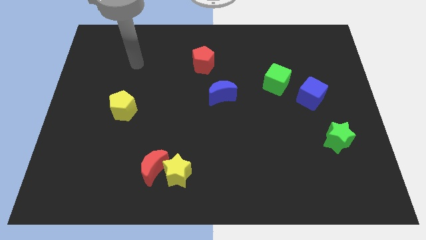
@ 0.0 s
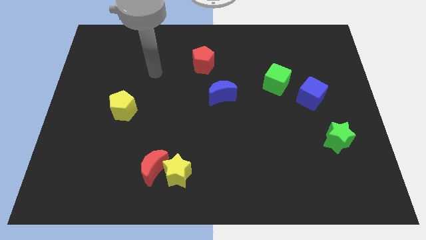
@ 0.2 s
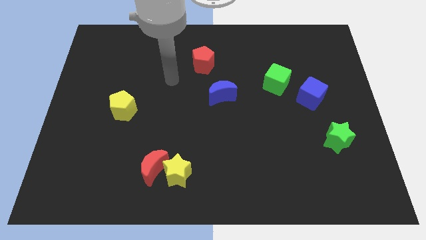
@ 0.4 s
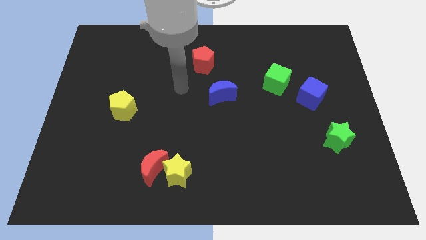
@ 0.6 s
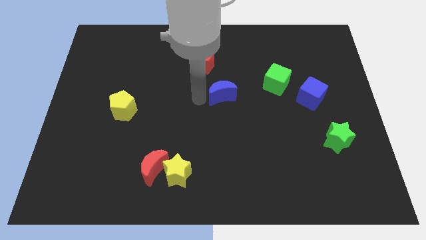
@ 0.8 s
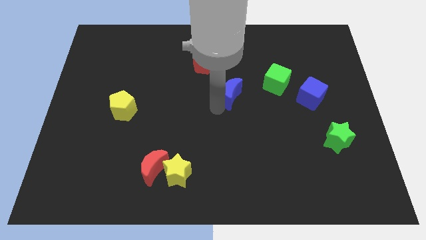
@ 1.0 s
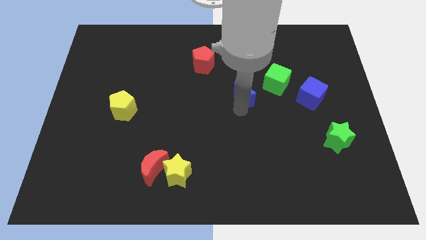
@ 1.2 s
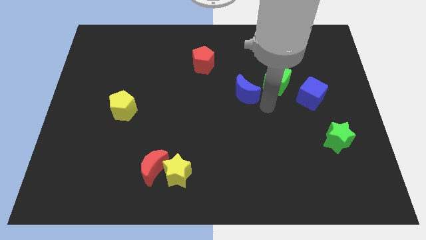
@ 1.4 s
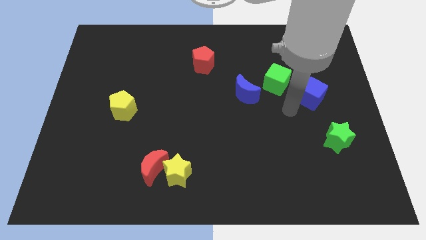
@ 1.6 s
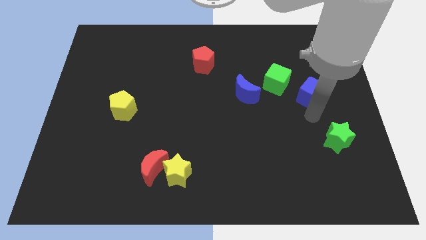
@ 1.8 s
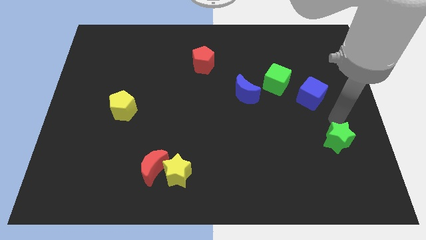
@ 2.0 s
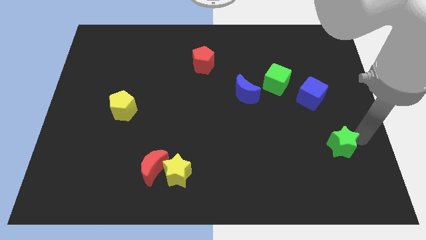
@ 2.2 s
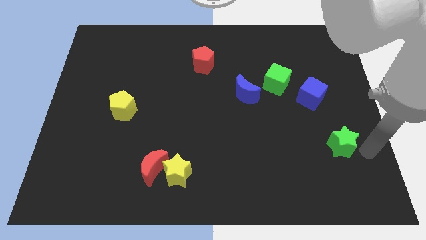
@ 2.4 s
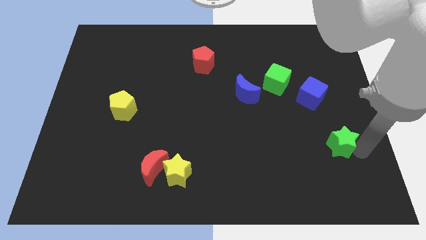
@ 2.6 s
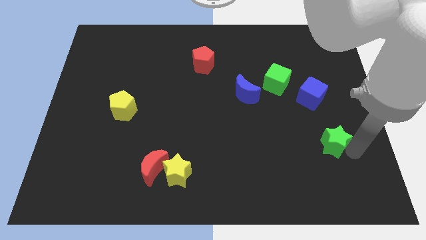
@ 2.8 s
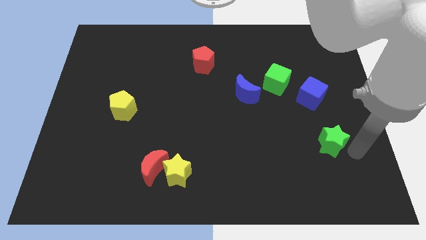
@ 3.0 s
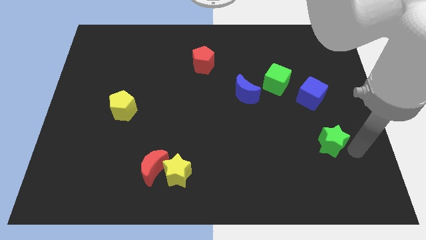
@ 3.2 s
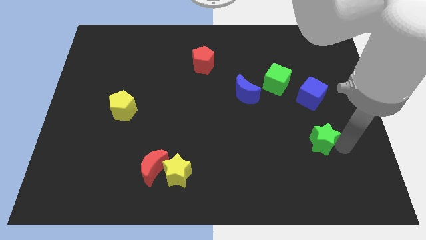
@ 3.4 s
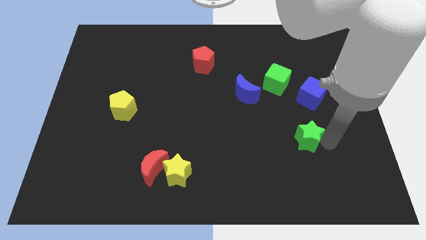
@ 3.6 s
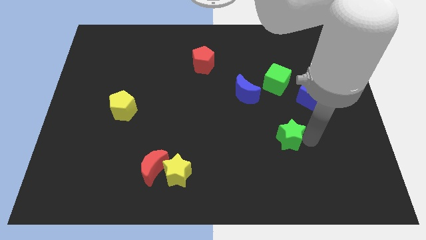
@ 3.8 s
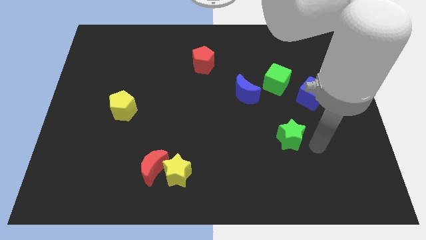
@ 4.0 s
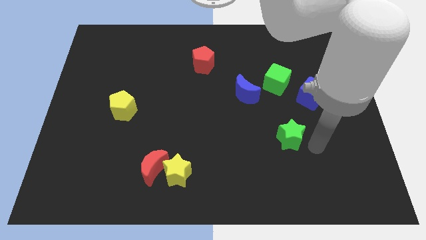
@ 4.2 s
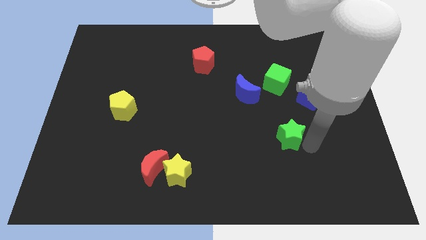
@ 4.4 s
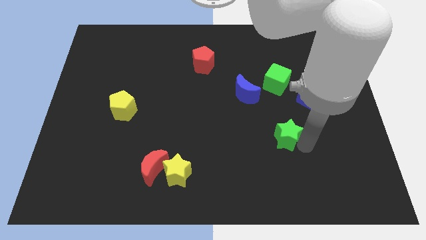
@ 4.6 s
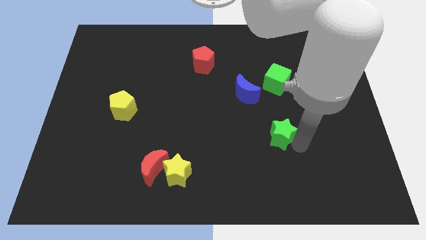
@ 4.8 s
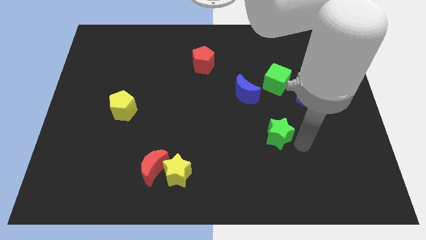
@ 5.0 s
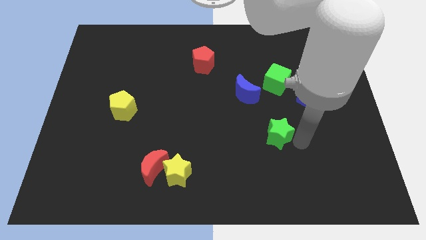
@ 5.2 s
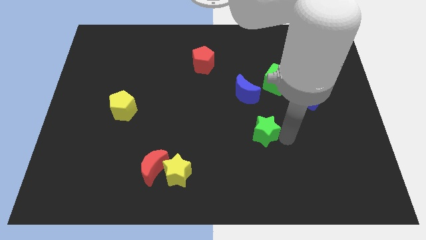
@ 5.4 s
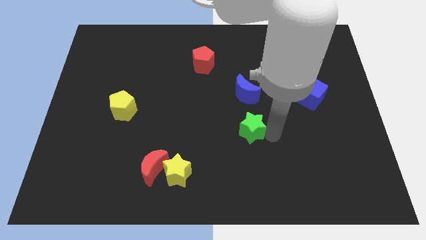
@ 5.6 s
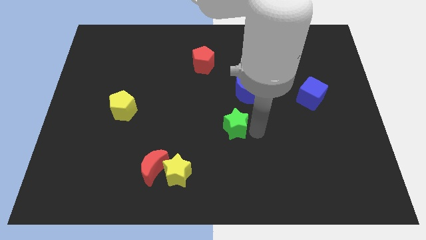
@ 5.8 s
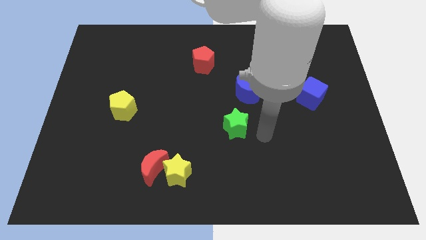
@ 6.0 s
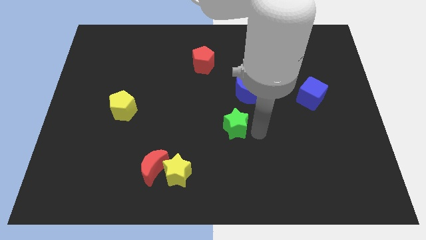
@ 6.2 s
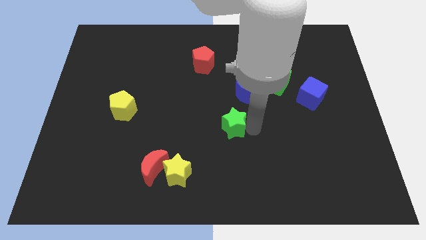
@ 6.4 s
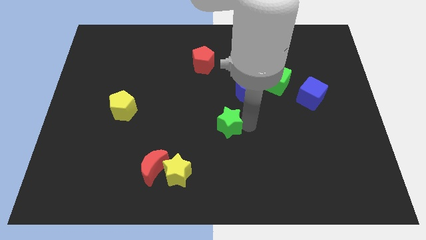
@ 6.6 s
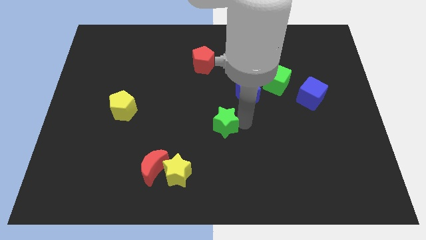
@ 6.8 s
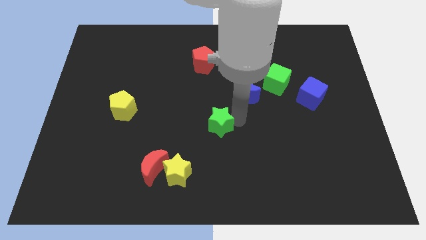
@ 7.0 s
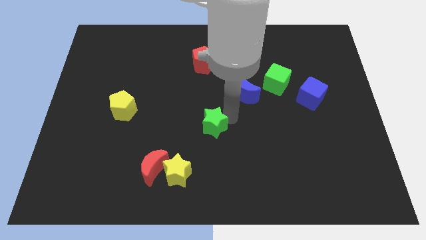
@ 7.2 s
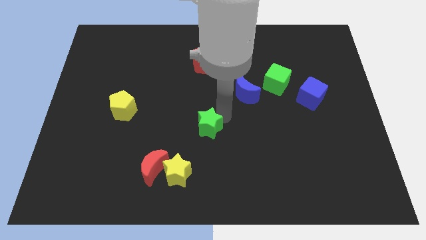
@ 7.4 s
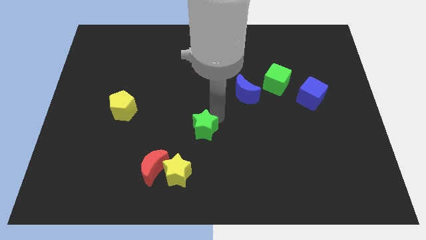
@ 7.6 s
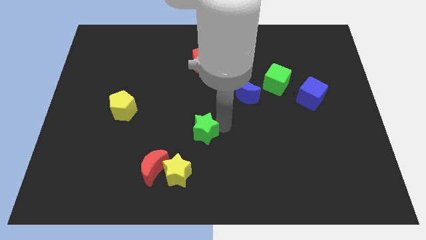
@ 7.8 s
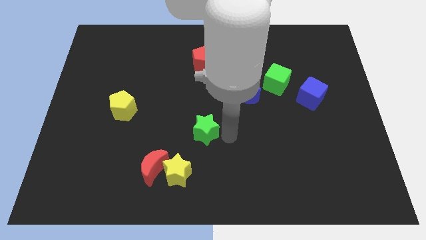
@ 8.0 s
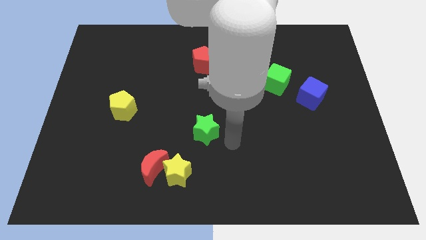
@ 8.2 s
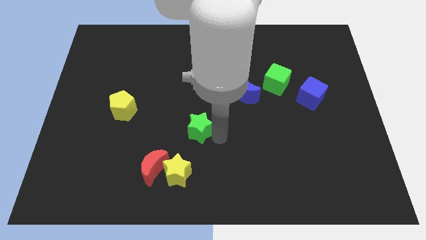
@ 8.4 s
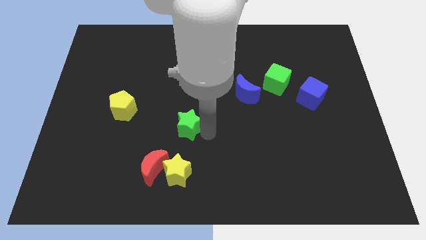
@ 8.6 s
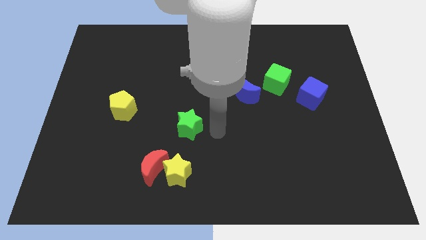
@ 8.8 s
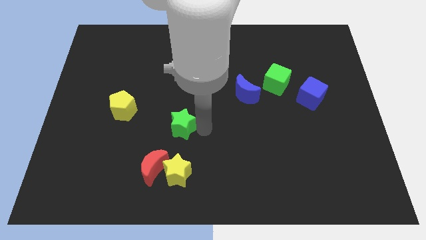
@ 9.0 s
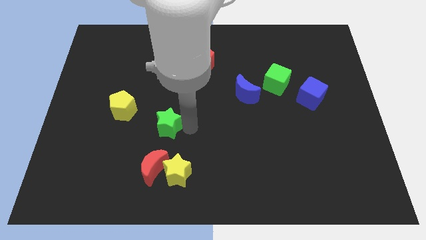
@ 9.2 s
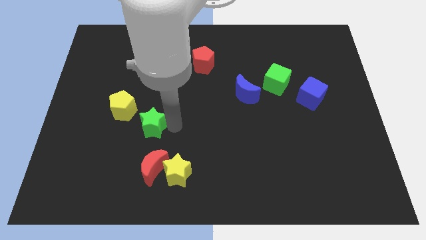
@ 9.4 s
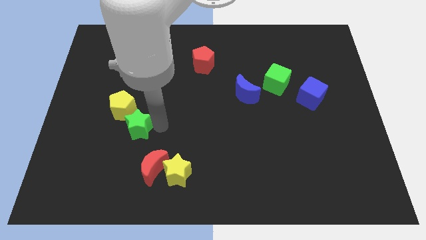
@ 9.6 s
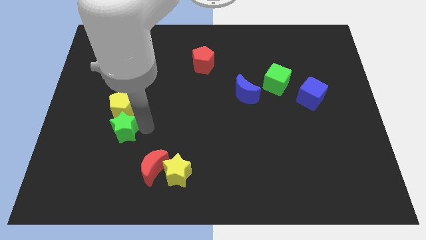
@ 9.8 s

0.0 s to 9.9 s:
put the green star to the bottom left of the yellow pentagon

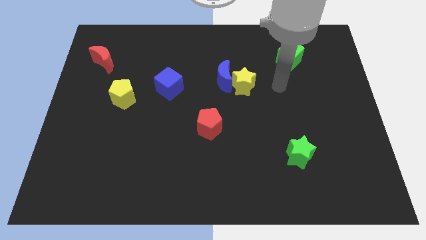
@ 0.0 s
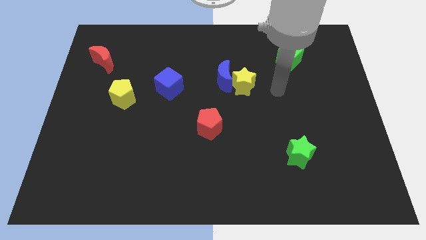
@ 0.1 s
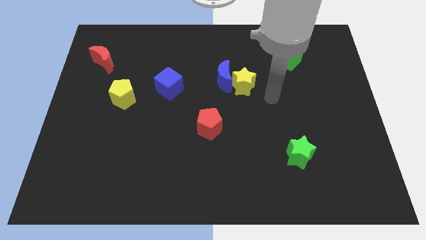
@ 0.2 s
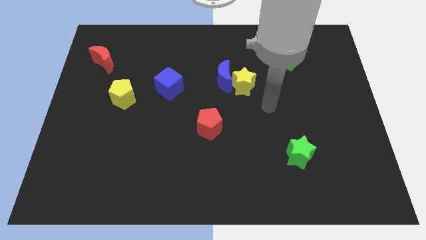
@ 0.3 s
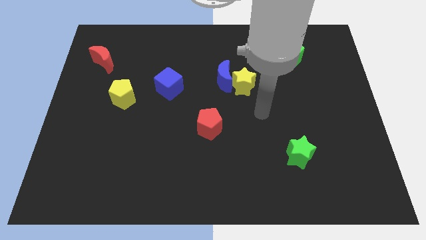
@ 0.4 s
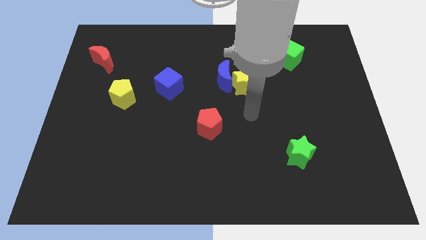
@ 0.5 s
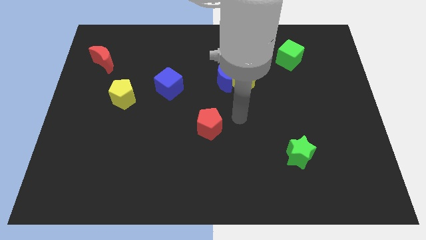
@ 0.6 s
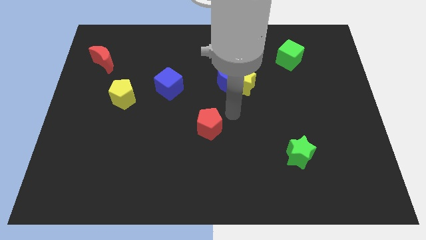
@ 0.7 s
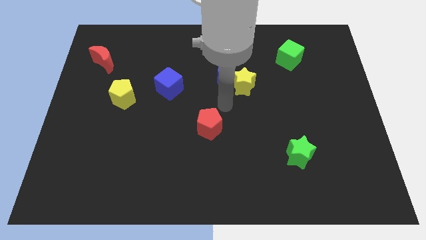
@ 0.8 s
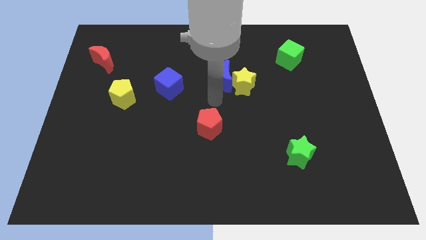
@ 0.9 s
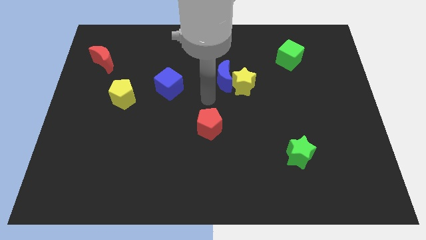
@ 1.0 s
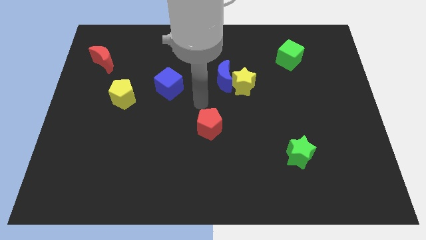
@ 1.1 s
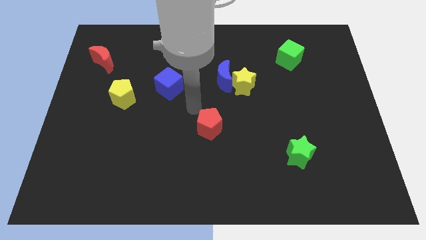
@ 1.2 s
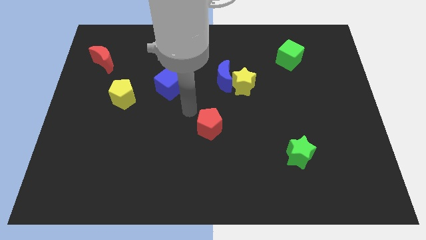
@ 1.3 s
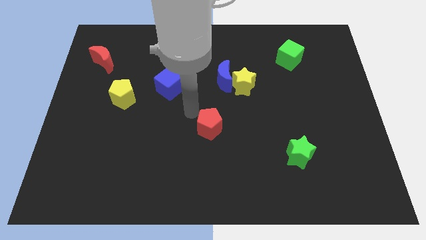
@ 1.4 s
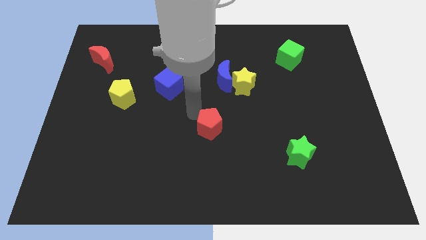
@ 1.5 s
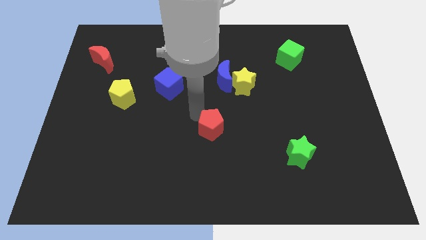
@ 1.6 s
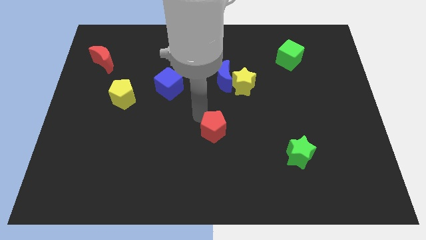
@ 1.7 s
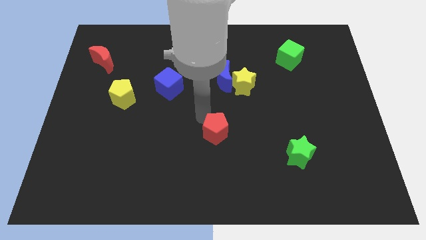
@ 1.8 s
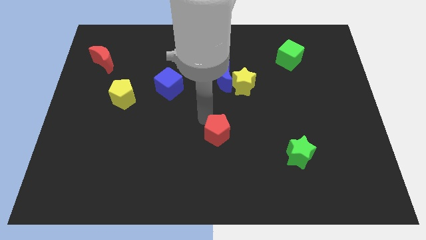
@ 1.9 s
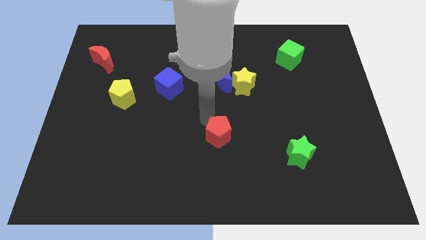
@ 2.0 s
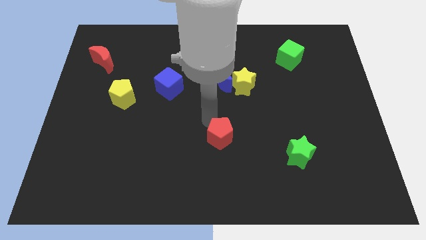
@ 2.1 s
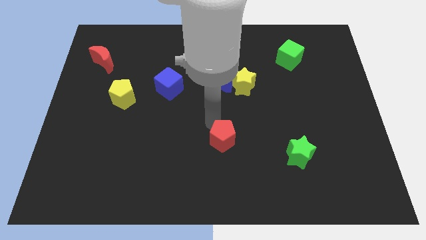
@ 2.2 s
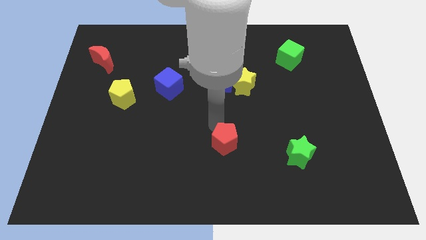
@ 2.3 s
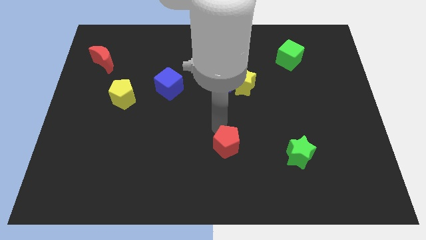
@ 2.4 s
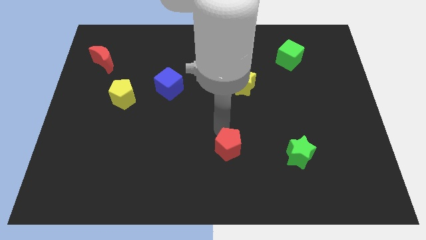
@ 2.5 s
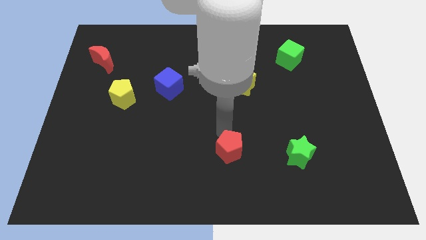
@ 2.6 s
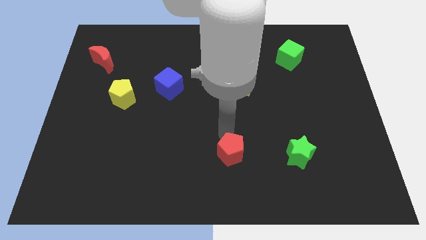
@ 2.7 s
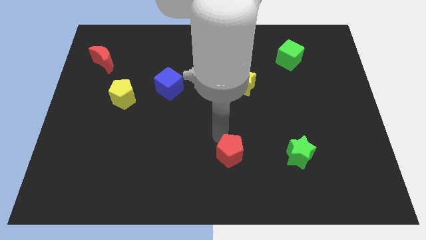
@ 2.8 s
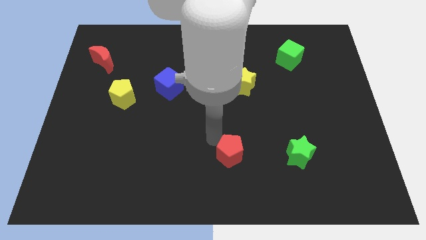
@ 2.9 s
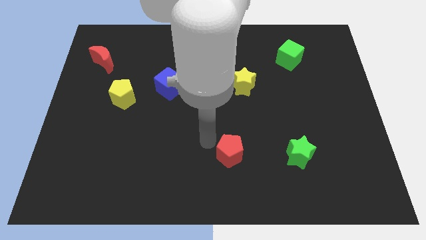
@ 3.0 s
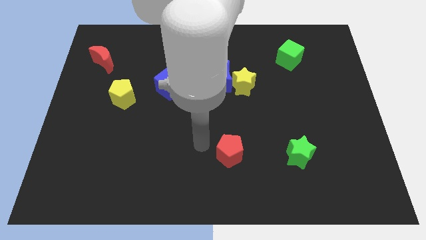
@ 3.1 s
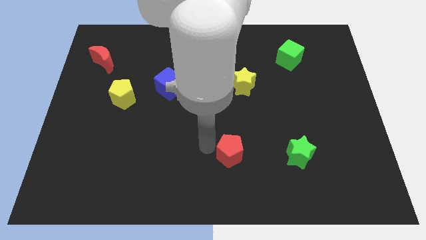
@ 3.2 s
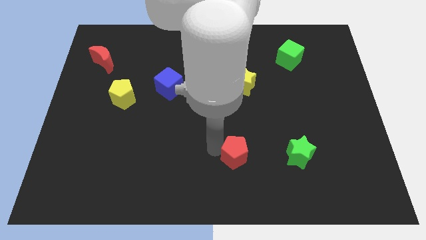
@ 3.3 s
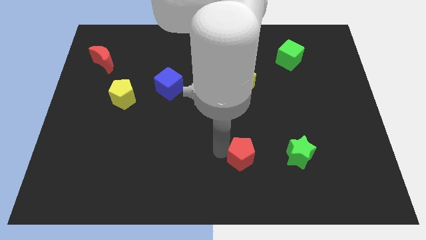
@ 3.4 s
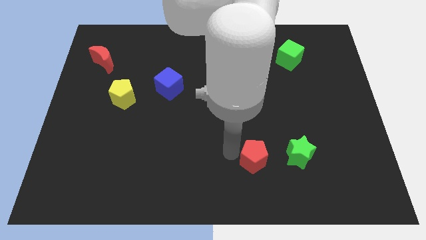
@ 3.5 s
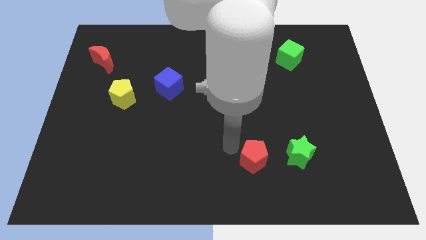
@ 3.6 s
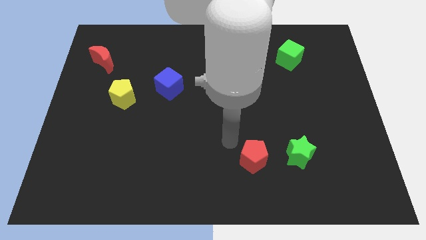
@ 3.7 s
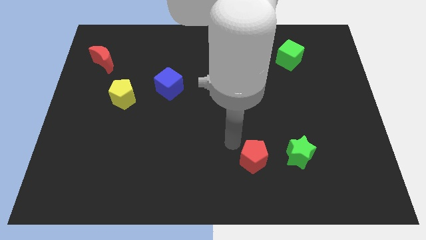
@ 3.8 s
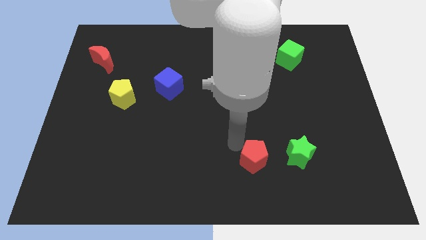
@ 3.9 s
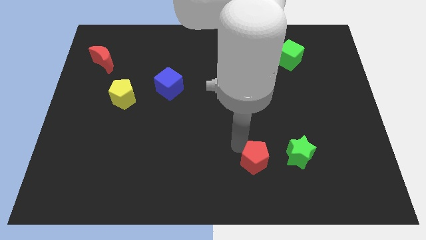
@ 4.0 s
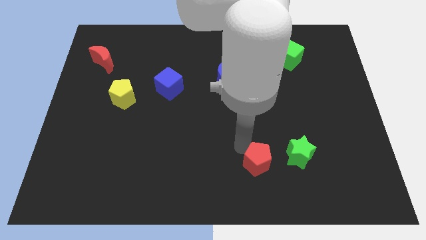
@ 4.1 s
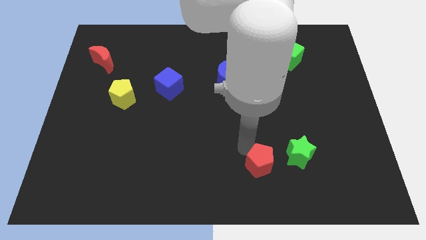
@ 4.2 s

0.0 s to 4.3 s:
push the red pentagon to the bottom left of the green star
